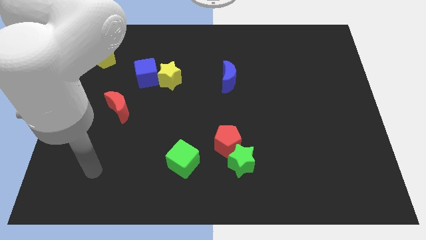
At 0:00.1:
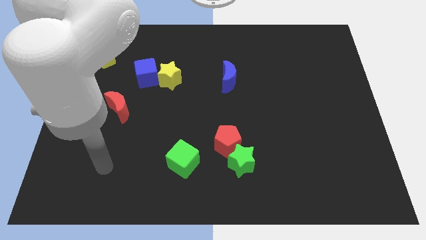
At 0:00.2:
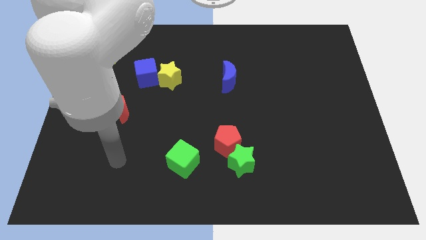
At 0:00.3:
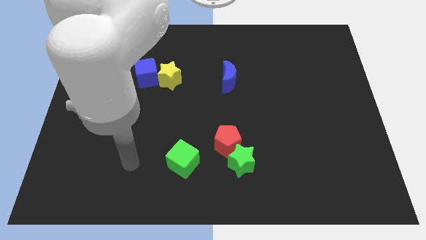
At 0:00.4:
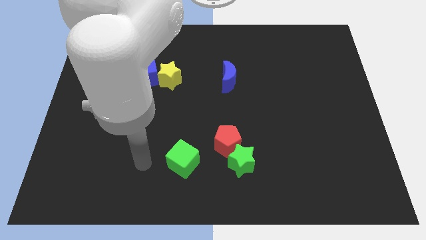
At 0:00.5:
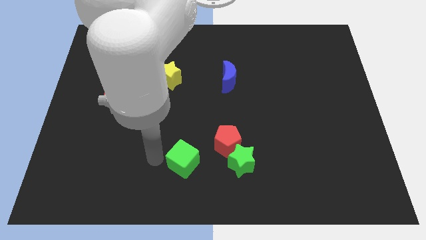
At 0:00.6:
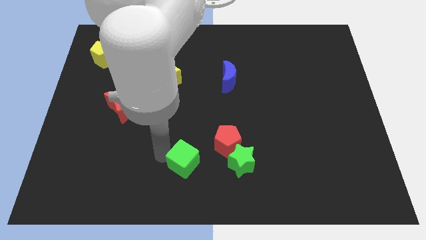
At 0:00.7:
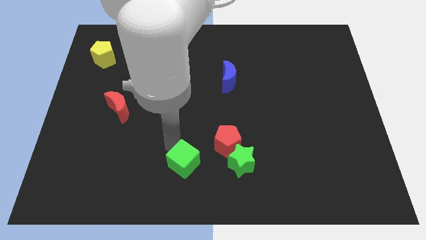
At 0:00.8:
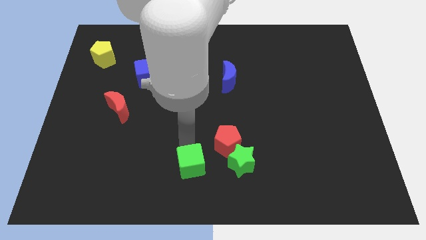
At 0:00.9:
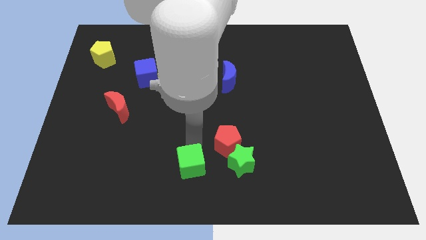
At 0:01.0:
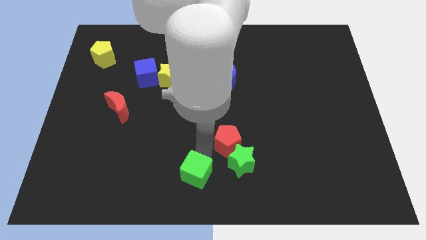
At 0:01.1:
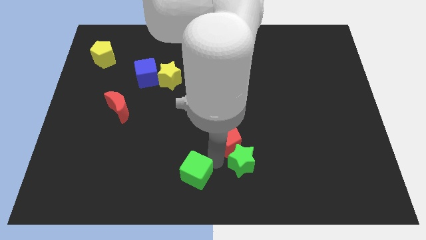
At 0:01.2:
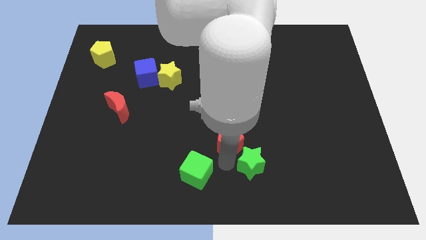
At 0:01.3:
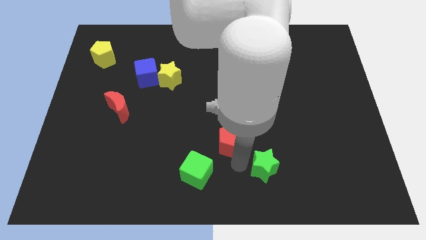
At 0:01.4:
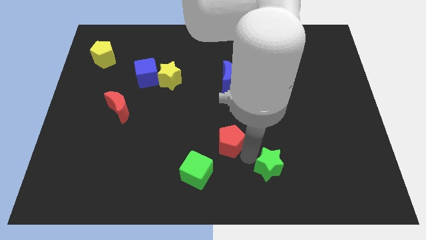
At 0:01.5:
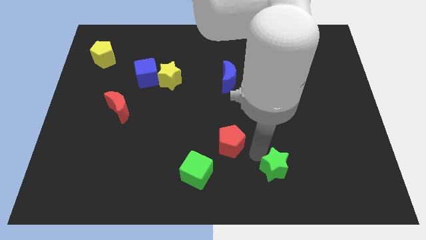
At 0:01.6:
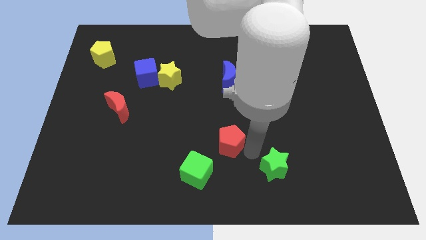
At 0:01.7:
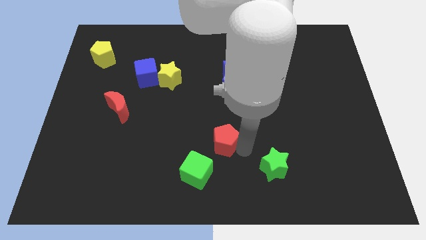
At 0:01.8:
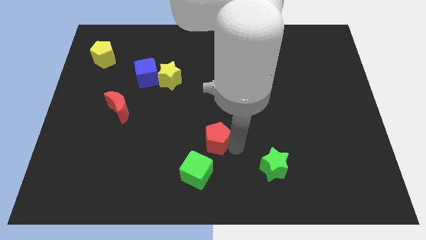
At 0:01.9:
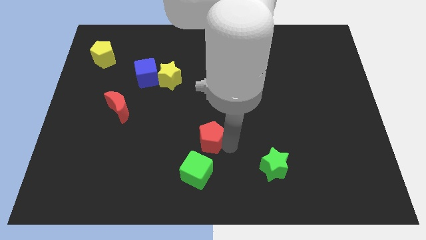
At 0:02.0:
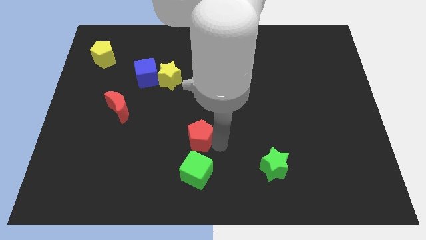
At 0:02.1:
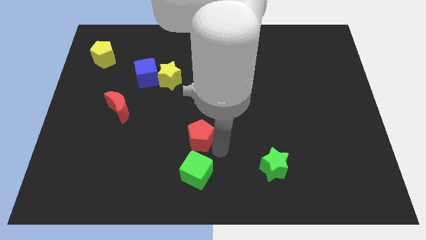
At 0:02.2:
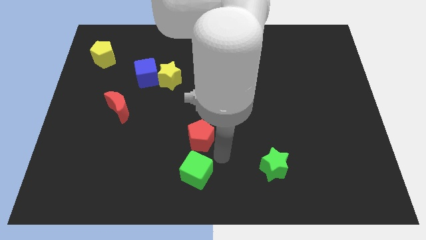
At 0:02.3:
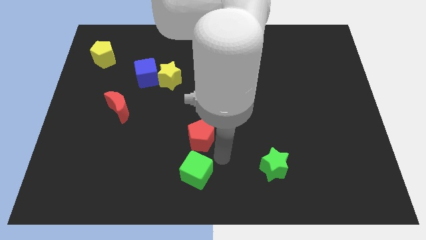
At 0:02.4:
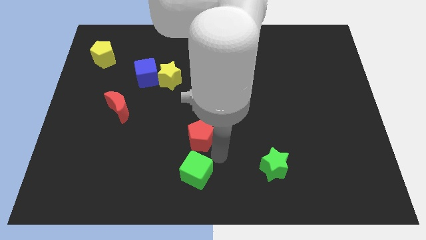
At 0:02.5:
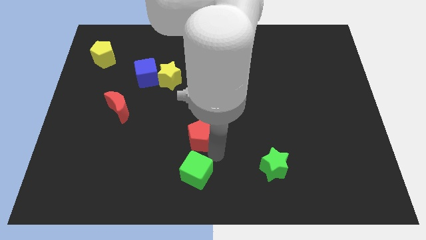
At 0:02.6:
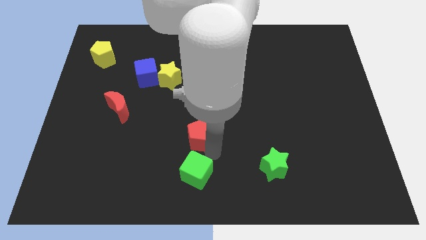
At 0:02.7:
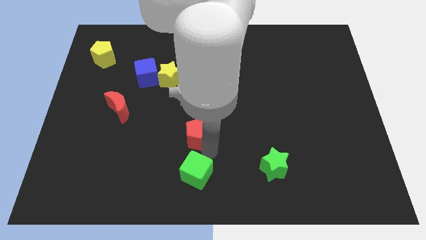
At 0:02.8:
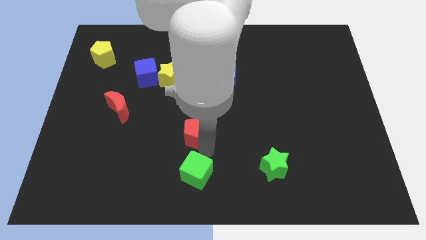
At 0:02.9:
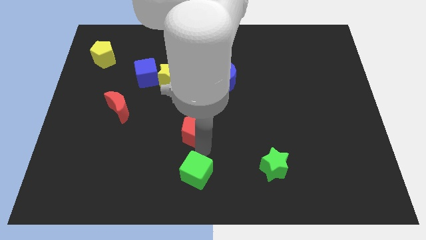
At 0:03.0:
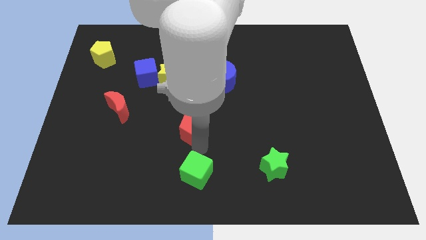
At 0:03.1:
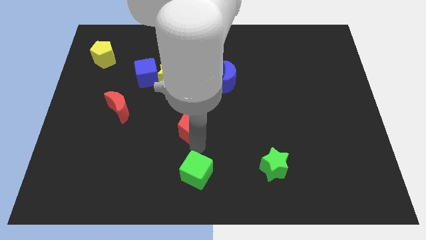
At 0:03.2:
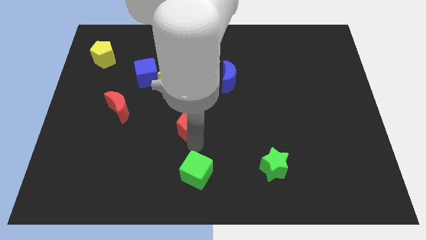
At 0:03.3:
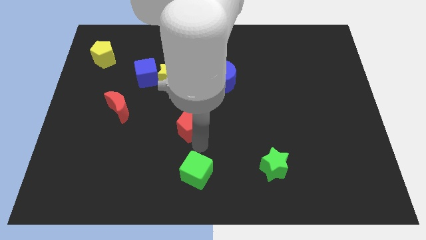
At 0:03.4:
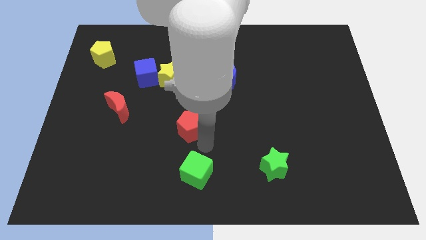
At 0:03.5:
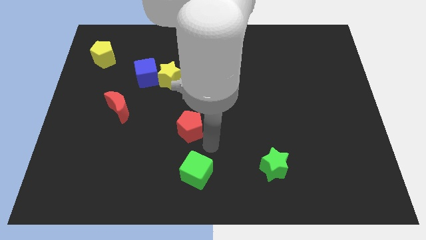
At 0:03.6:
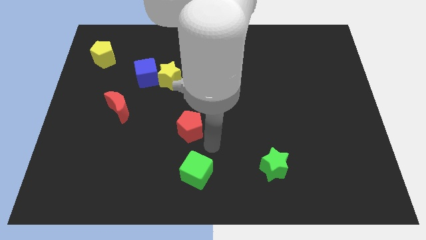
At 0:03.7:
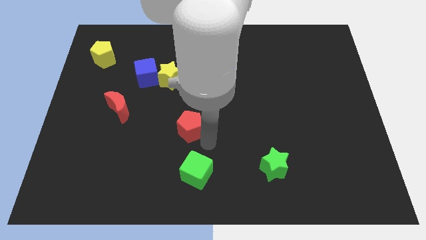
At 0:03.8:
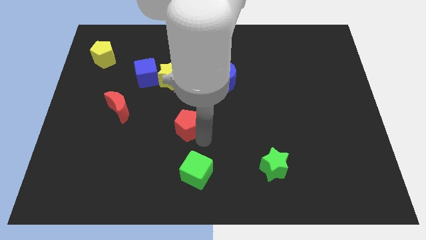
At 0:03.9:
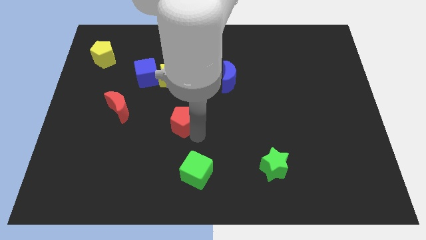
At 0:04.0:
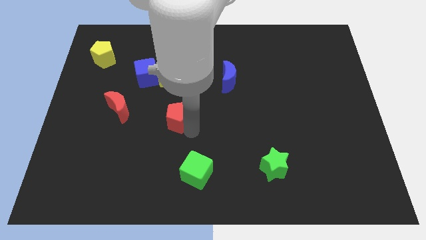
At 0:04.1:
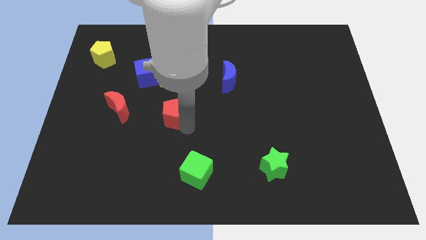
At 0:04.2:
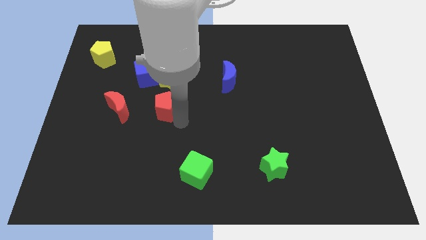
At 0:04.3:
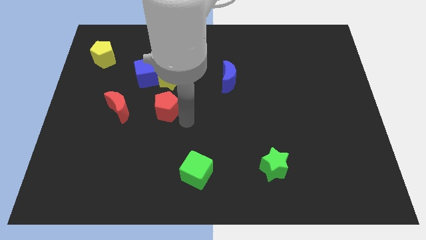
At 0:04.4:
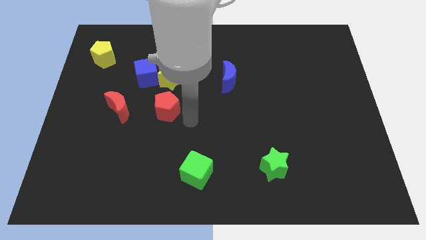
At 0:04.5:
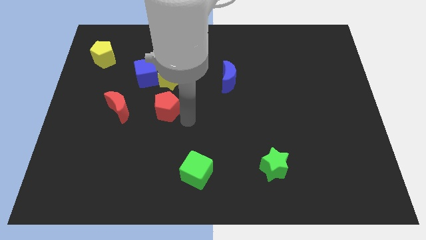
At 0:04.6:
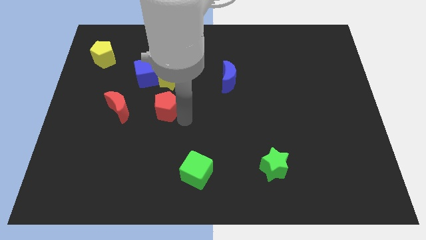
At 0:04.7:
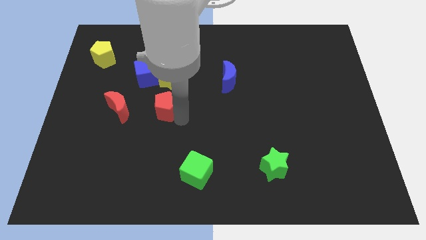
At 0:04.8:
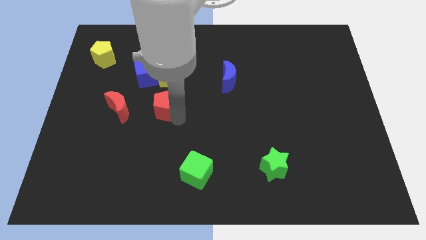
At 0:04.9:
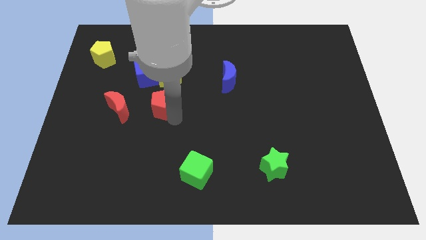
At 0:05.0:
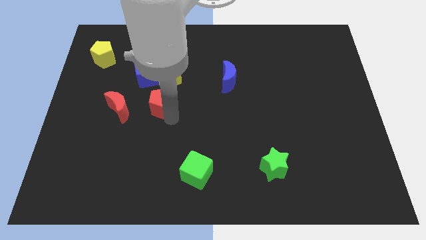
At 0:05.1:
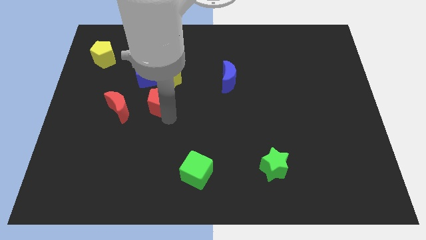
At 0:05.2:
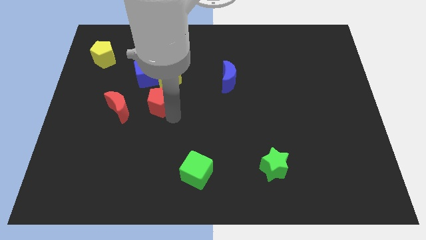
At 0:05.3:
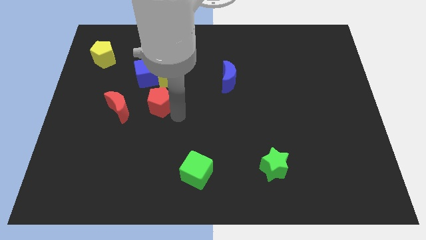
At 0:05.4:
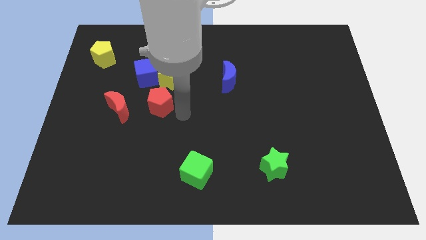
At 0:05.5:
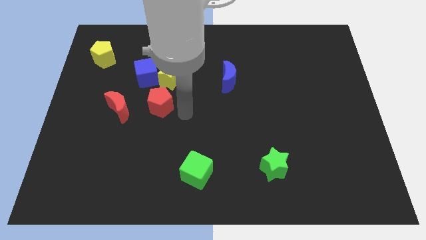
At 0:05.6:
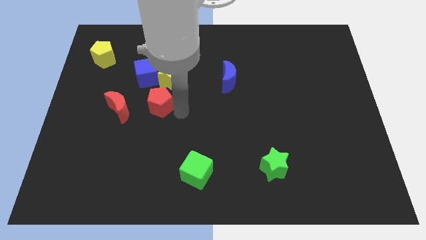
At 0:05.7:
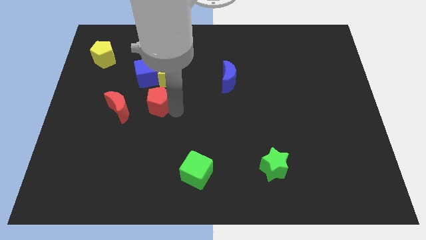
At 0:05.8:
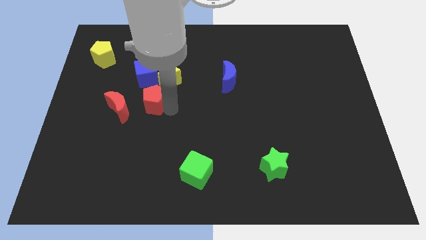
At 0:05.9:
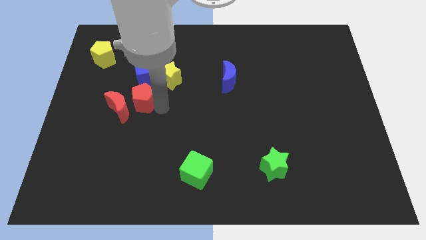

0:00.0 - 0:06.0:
push the red pentagon diagonally upwards and left

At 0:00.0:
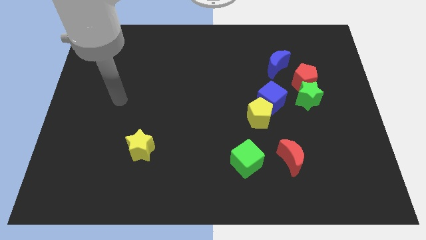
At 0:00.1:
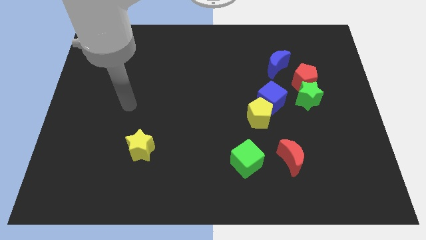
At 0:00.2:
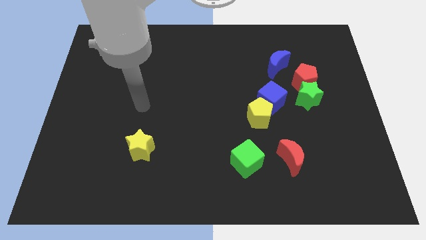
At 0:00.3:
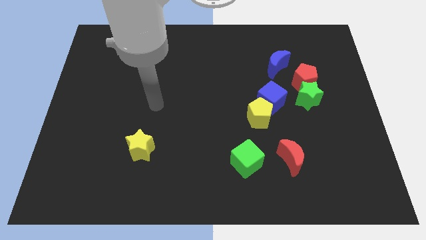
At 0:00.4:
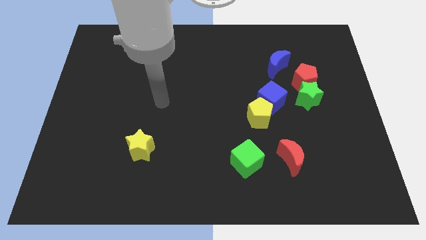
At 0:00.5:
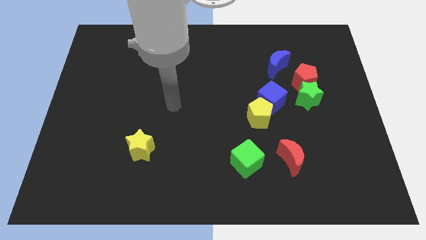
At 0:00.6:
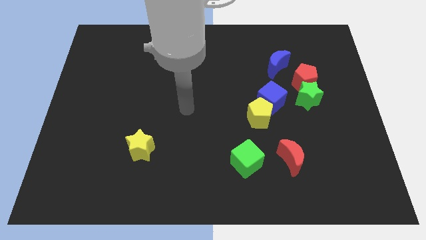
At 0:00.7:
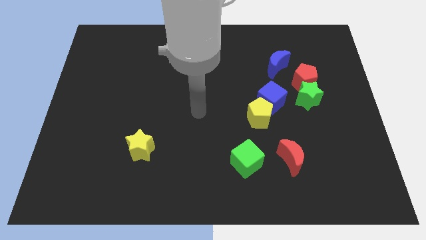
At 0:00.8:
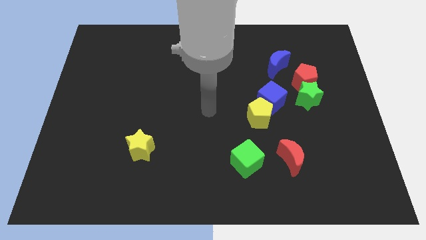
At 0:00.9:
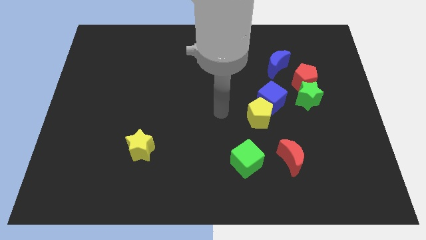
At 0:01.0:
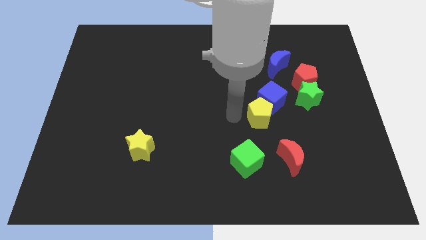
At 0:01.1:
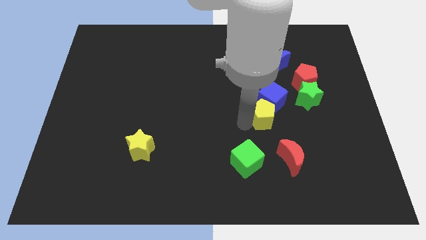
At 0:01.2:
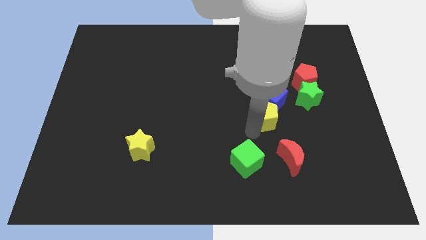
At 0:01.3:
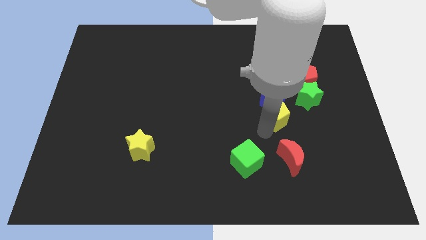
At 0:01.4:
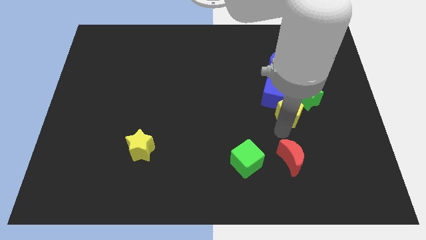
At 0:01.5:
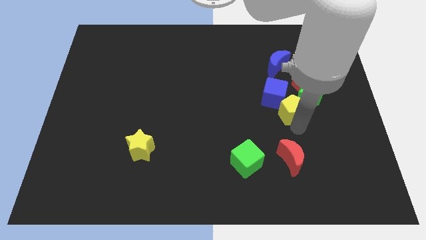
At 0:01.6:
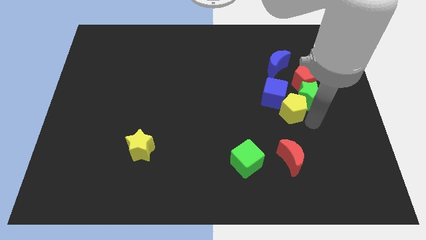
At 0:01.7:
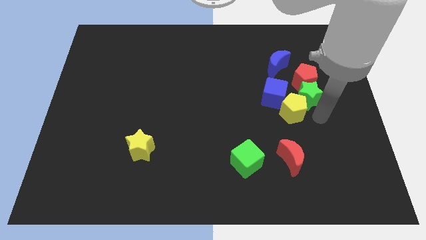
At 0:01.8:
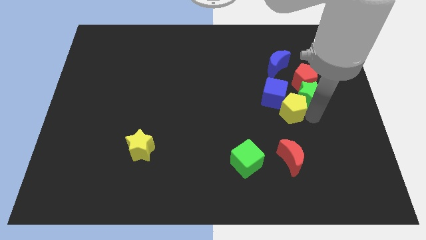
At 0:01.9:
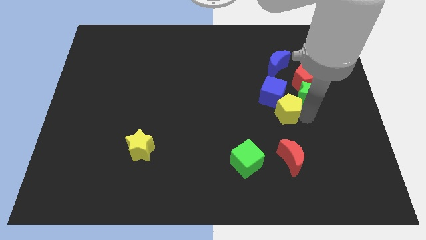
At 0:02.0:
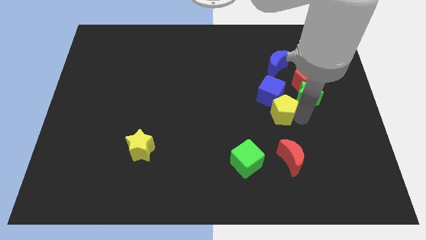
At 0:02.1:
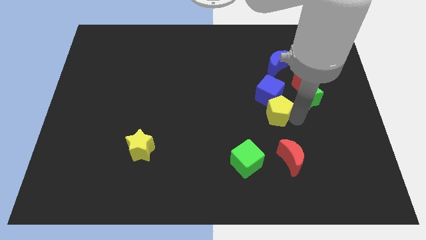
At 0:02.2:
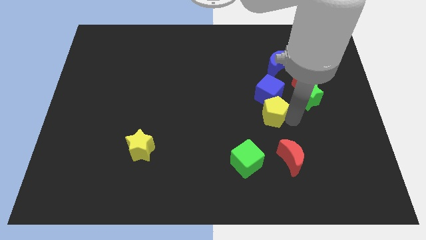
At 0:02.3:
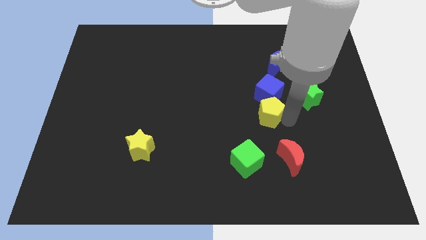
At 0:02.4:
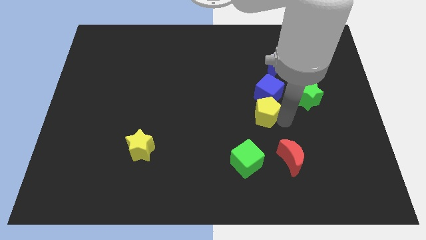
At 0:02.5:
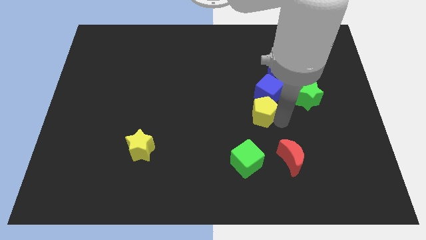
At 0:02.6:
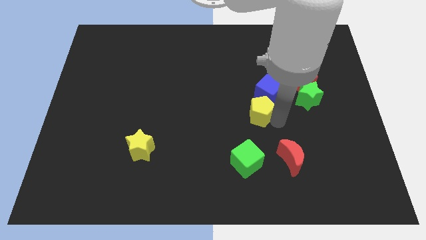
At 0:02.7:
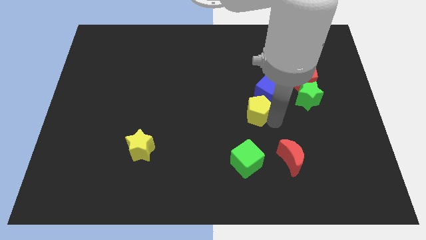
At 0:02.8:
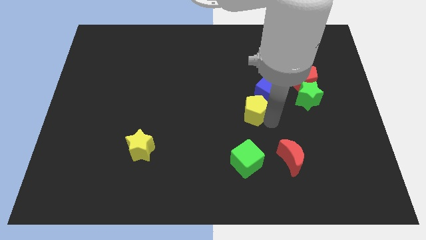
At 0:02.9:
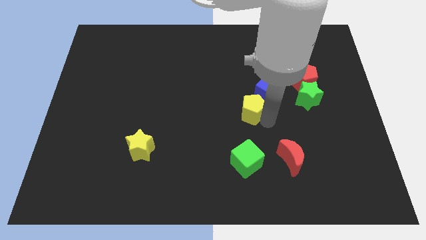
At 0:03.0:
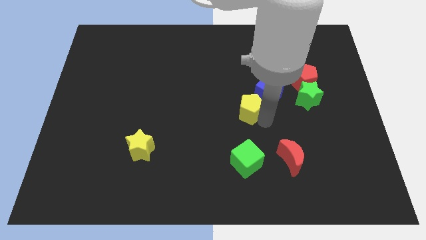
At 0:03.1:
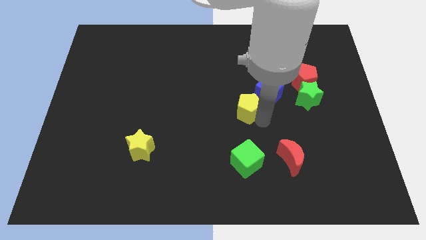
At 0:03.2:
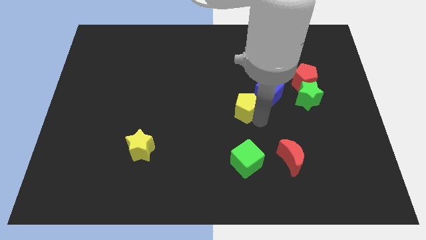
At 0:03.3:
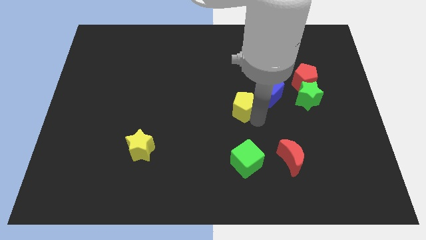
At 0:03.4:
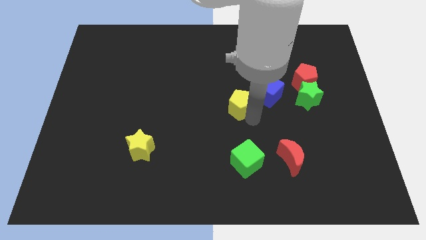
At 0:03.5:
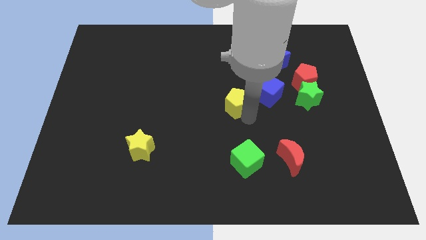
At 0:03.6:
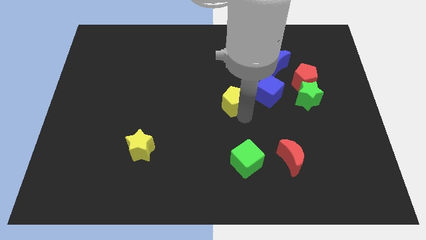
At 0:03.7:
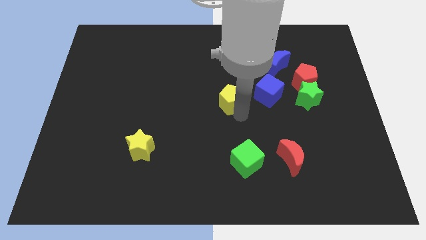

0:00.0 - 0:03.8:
push the yellow pentagon a little bit up and to the left diagonally
